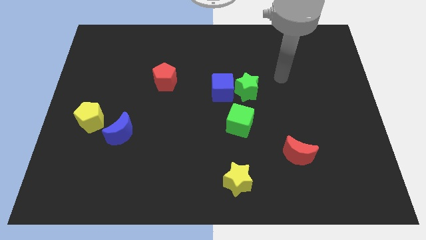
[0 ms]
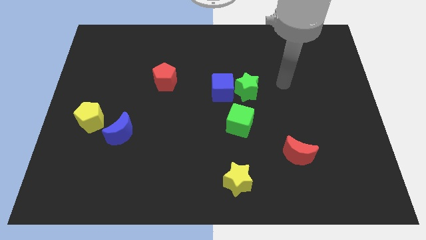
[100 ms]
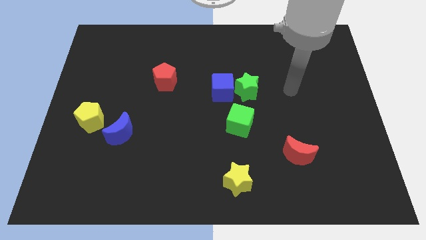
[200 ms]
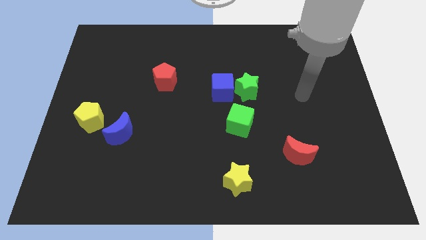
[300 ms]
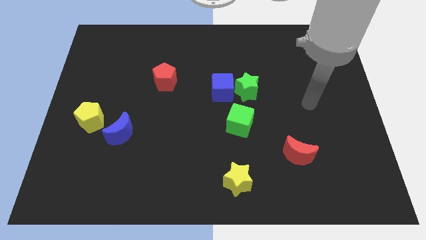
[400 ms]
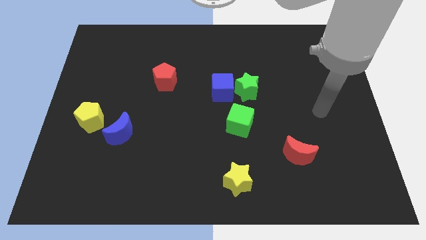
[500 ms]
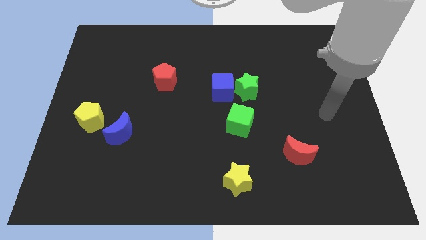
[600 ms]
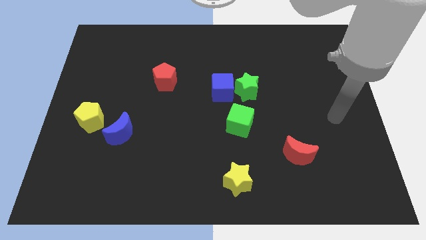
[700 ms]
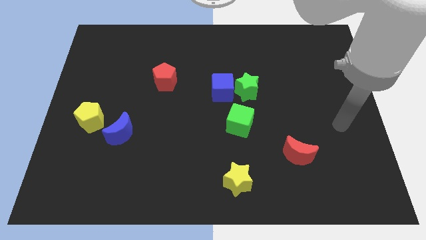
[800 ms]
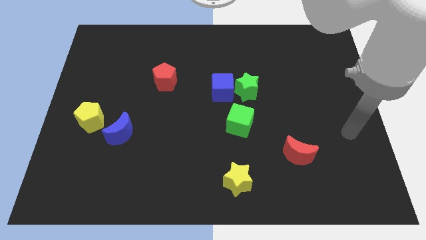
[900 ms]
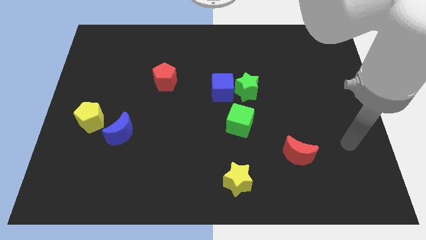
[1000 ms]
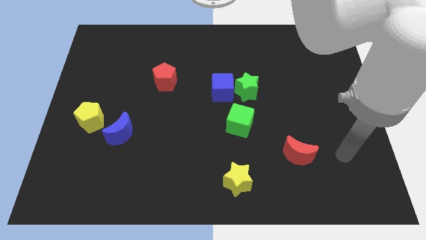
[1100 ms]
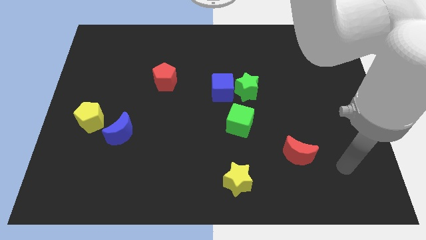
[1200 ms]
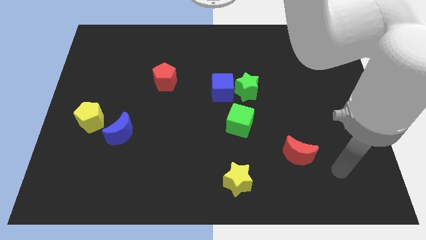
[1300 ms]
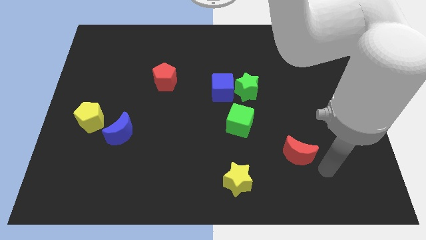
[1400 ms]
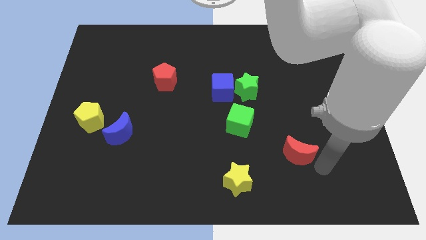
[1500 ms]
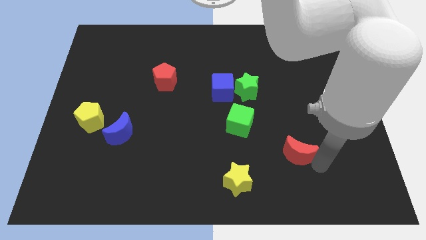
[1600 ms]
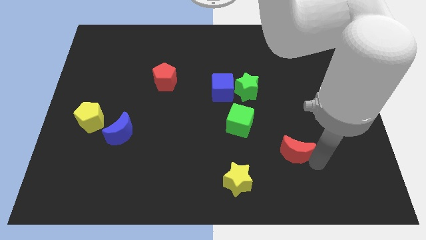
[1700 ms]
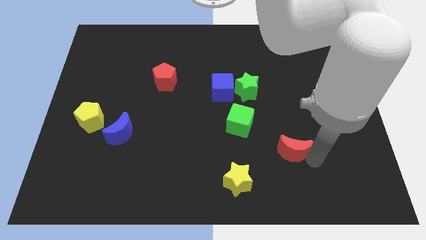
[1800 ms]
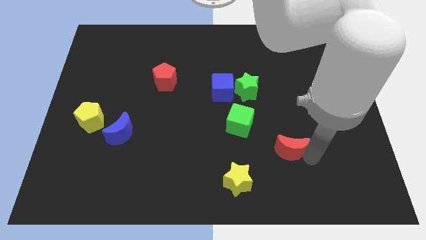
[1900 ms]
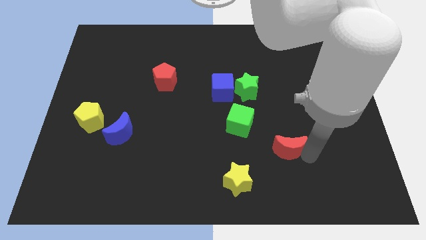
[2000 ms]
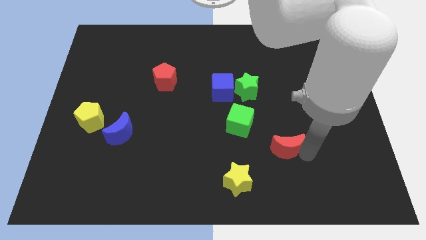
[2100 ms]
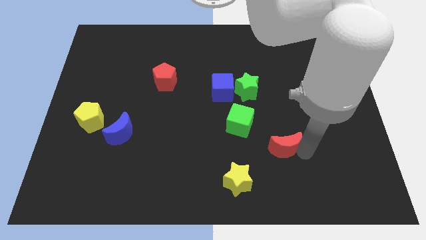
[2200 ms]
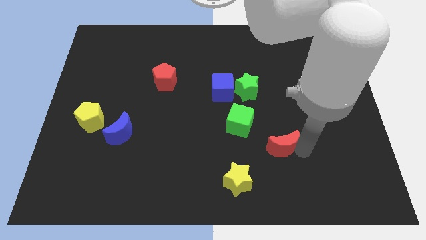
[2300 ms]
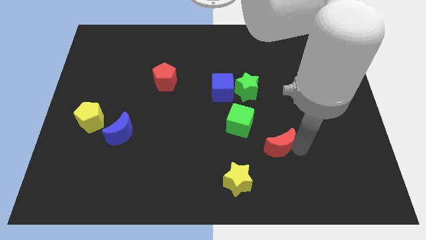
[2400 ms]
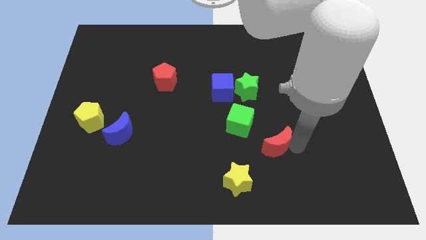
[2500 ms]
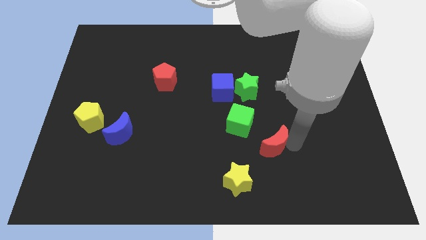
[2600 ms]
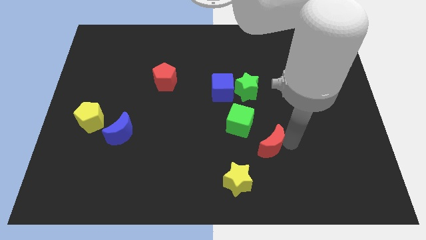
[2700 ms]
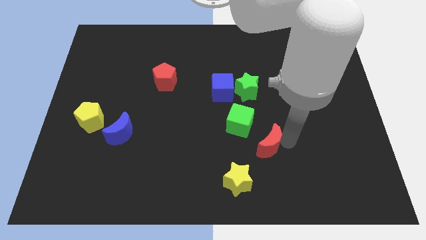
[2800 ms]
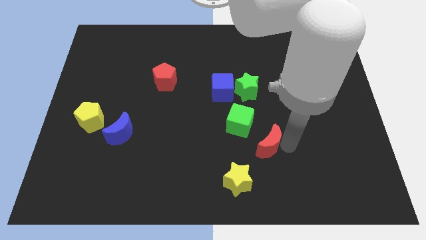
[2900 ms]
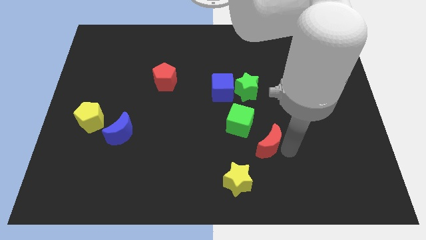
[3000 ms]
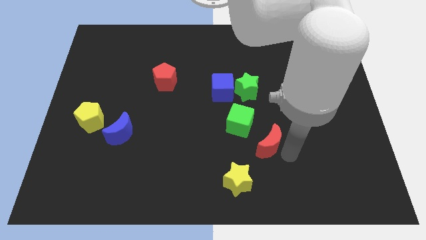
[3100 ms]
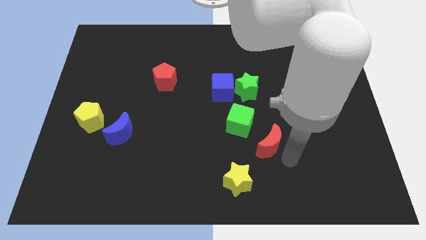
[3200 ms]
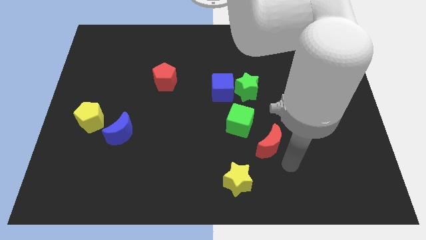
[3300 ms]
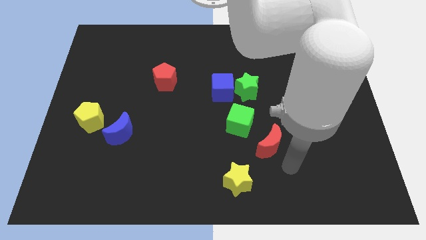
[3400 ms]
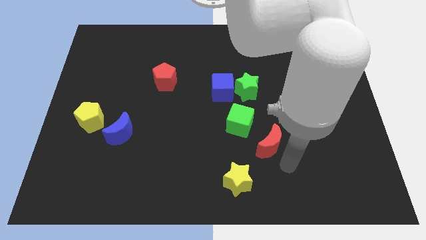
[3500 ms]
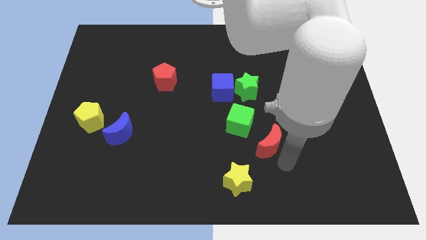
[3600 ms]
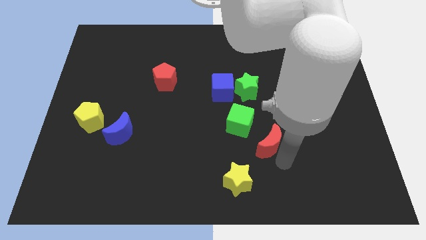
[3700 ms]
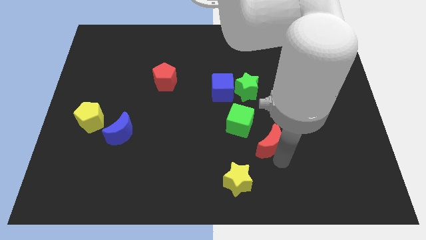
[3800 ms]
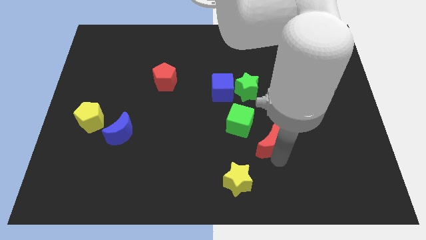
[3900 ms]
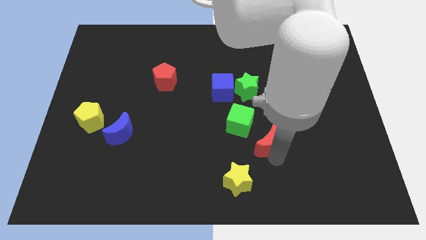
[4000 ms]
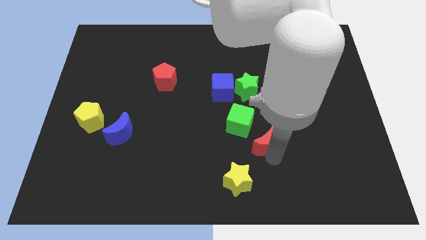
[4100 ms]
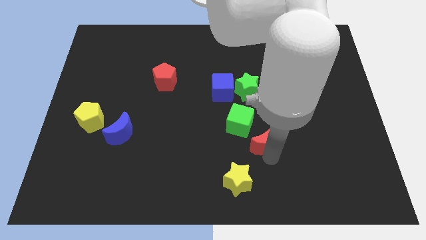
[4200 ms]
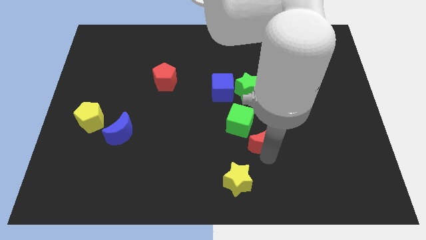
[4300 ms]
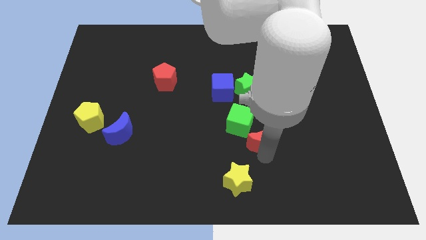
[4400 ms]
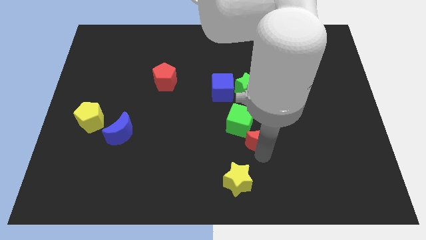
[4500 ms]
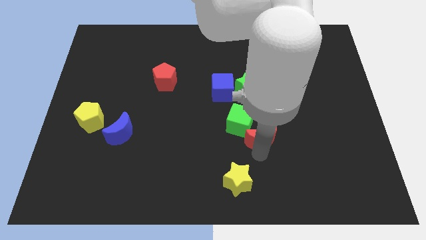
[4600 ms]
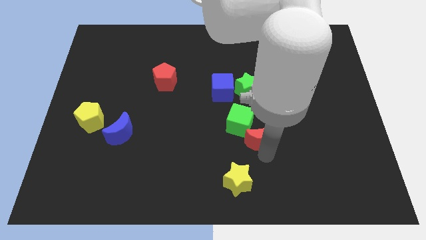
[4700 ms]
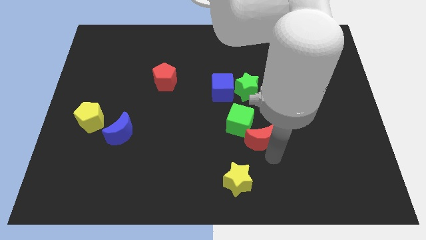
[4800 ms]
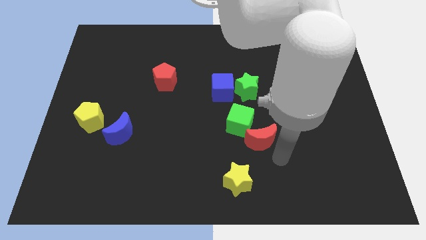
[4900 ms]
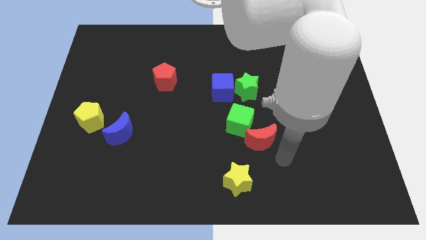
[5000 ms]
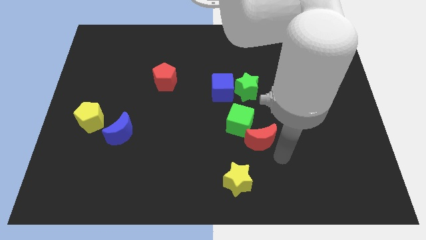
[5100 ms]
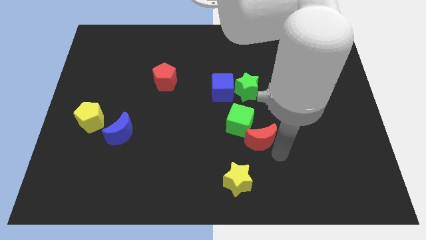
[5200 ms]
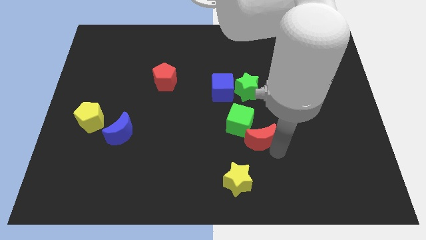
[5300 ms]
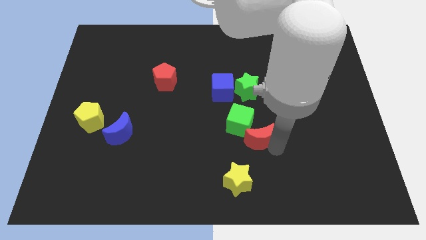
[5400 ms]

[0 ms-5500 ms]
slide the red moon towards the green cube
